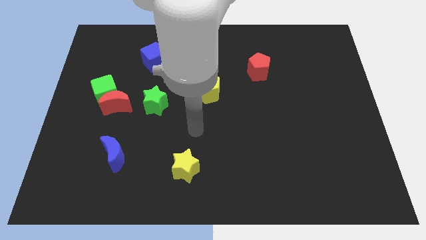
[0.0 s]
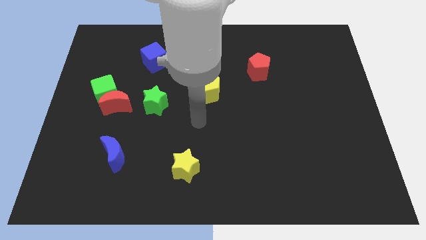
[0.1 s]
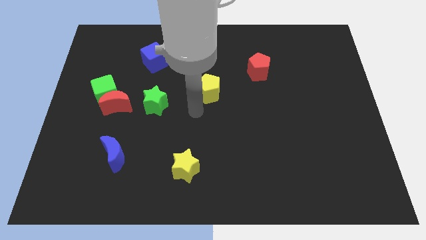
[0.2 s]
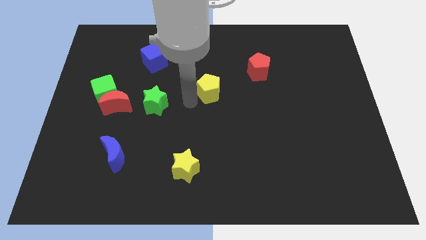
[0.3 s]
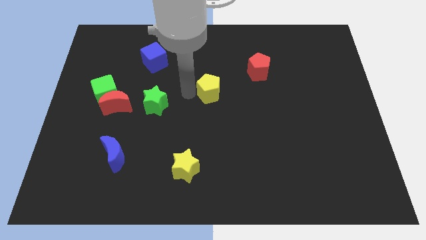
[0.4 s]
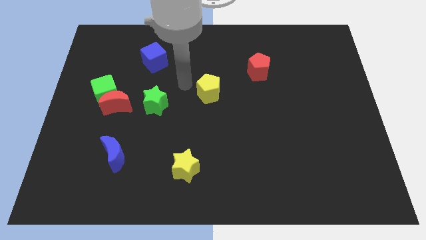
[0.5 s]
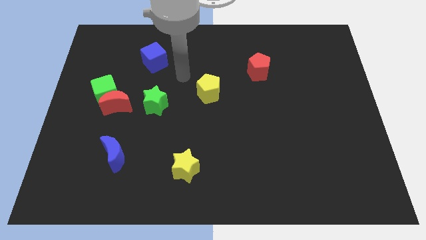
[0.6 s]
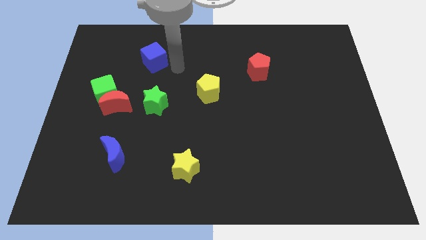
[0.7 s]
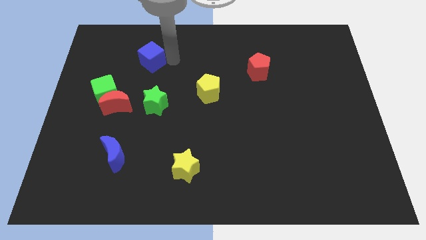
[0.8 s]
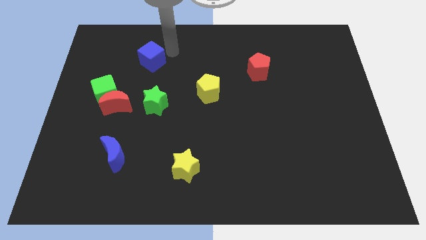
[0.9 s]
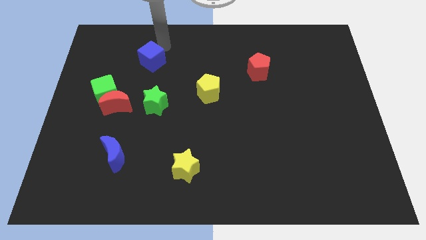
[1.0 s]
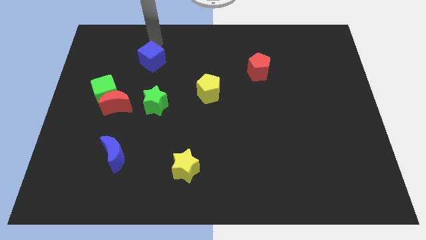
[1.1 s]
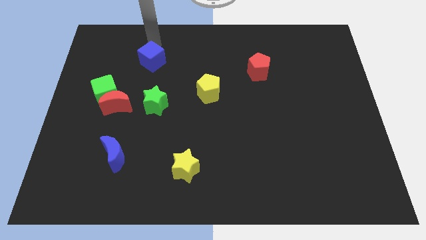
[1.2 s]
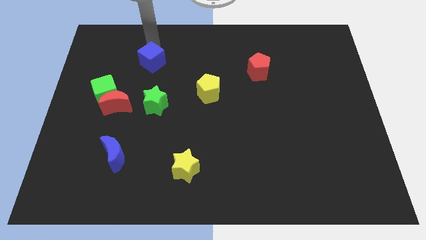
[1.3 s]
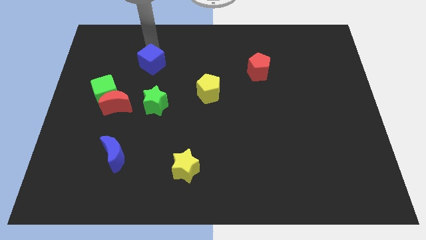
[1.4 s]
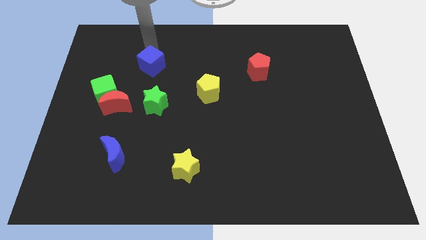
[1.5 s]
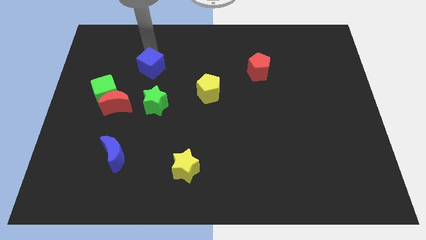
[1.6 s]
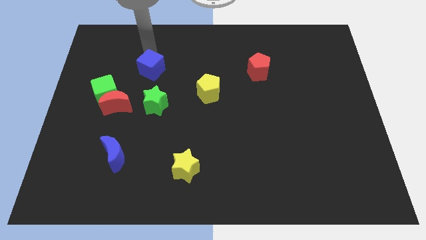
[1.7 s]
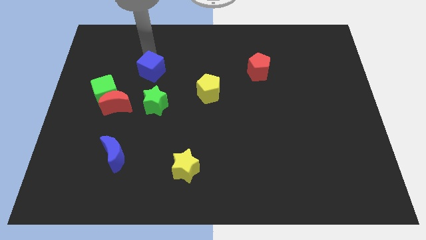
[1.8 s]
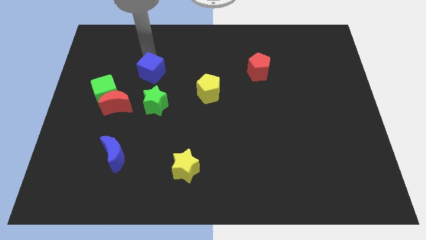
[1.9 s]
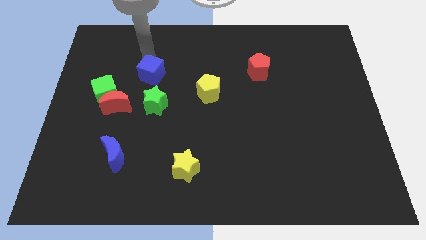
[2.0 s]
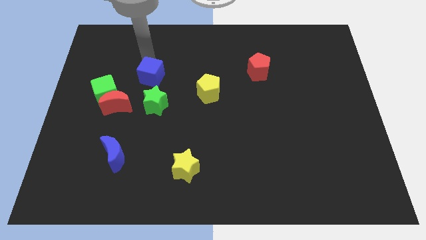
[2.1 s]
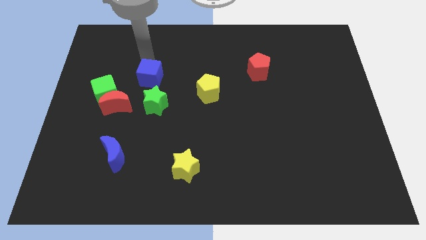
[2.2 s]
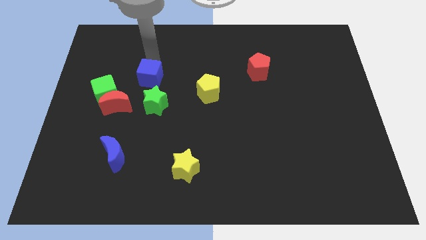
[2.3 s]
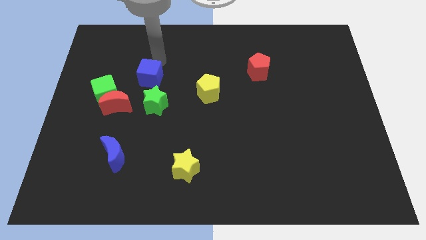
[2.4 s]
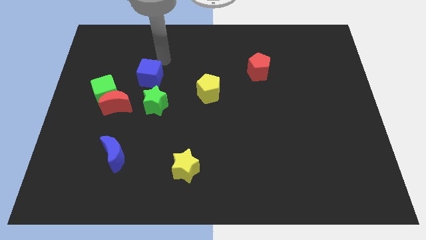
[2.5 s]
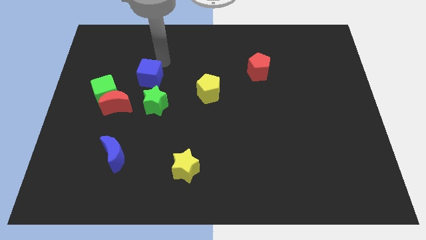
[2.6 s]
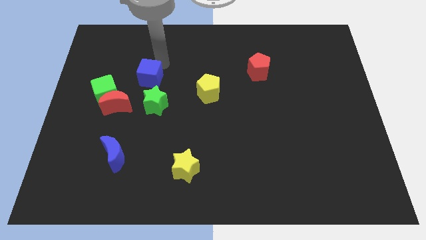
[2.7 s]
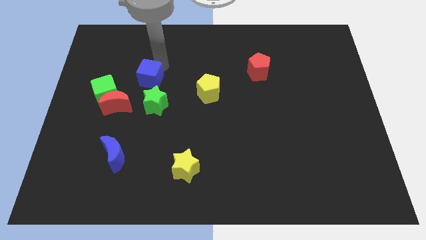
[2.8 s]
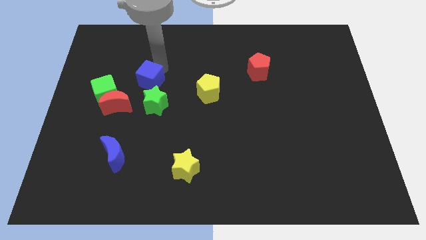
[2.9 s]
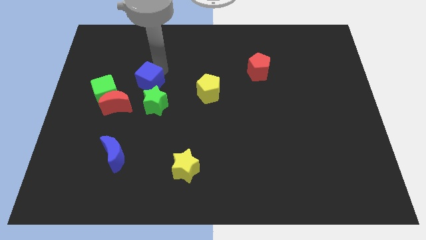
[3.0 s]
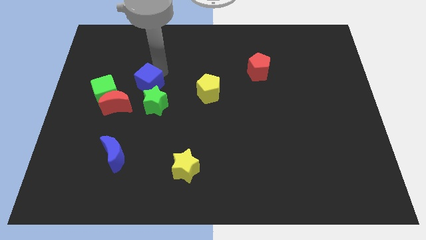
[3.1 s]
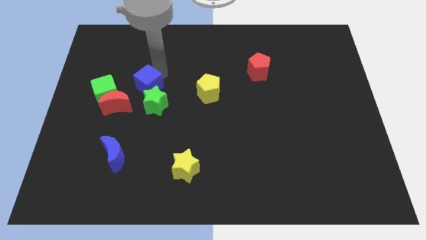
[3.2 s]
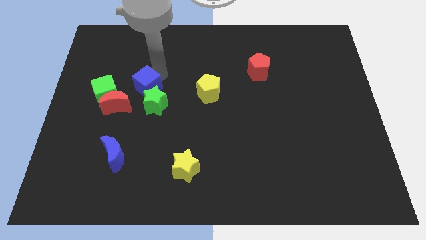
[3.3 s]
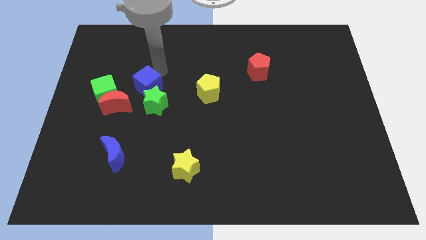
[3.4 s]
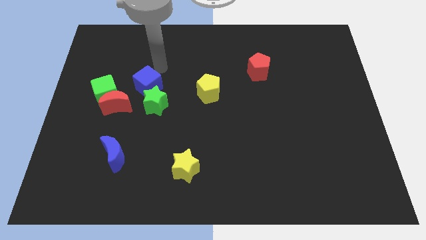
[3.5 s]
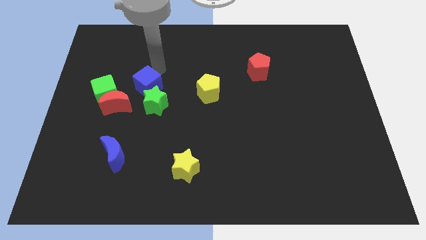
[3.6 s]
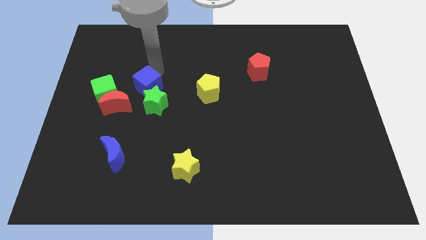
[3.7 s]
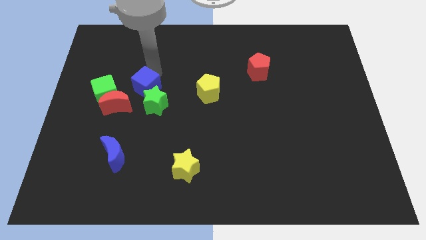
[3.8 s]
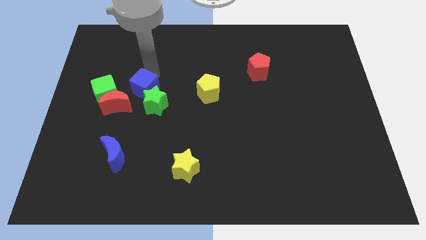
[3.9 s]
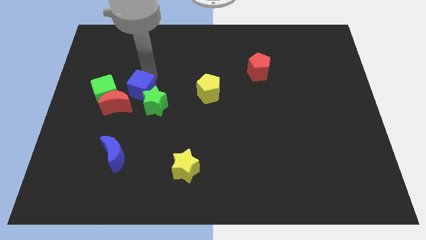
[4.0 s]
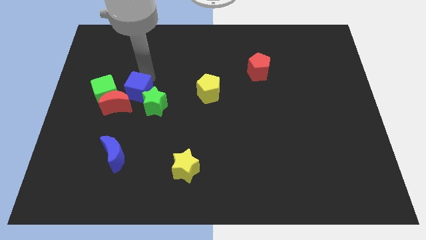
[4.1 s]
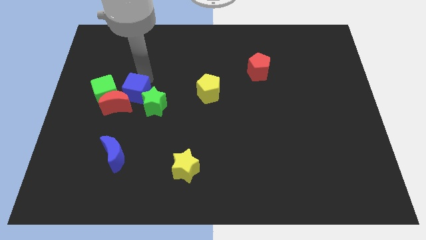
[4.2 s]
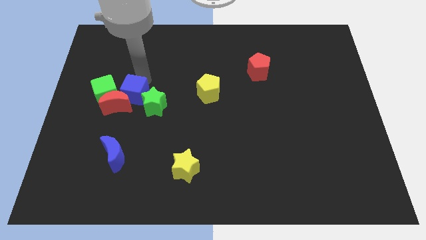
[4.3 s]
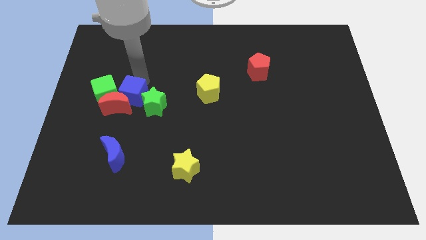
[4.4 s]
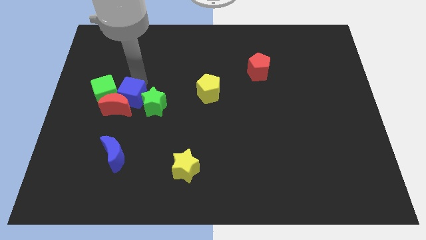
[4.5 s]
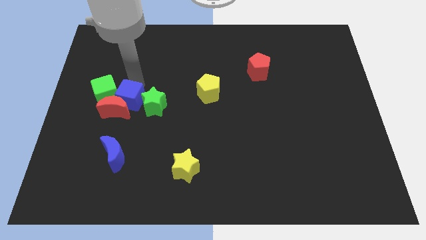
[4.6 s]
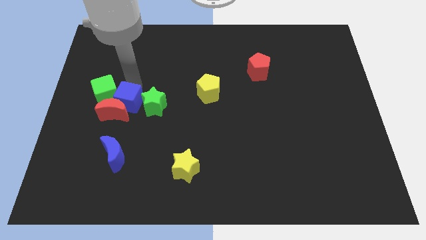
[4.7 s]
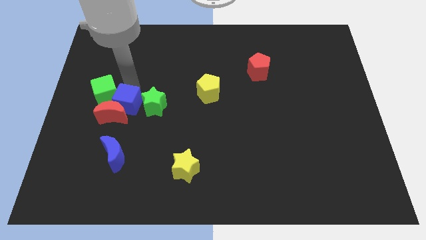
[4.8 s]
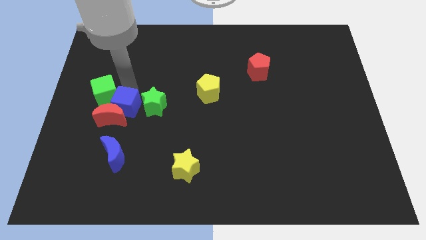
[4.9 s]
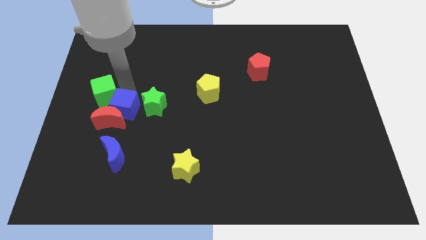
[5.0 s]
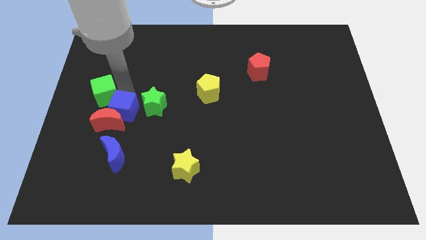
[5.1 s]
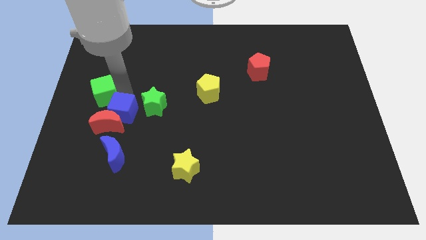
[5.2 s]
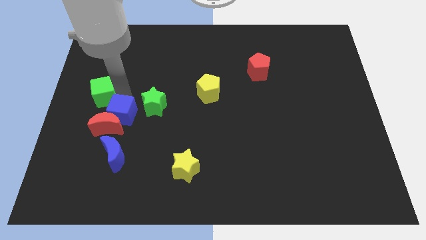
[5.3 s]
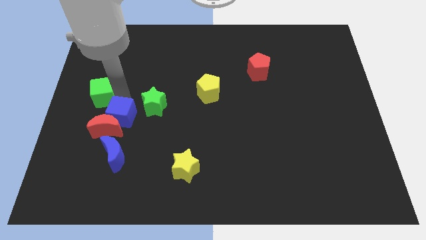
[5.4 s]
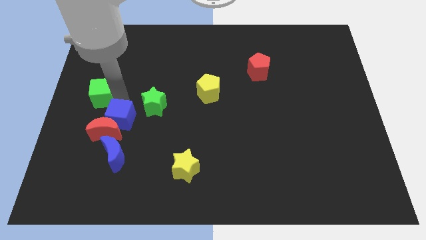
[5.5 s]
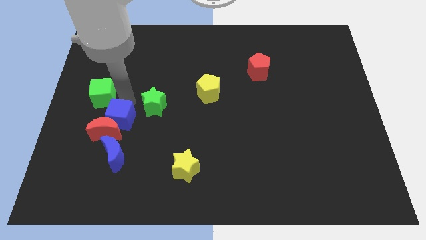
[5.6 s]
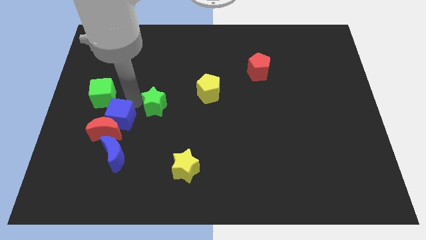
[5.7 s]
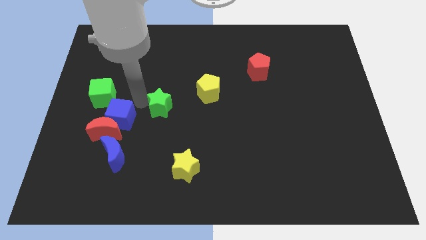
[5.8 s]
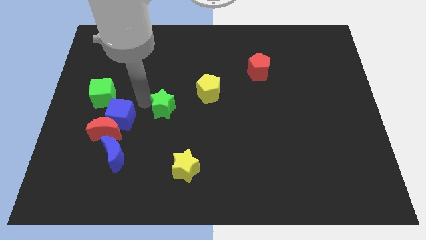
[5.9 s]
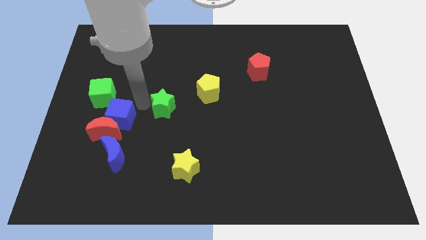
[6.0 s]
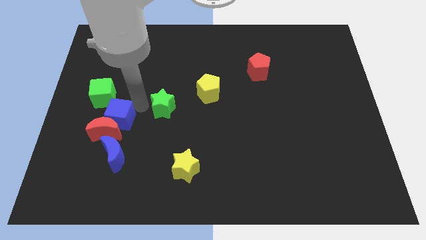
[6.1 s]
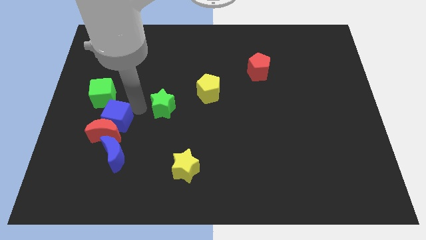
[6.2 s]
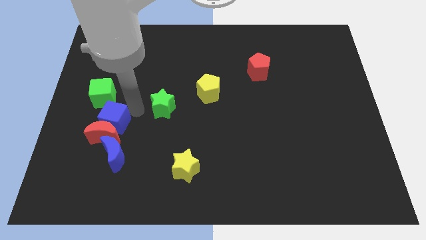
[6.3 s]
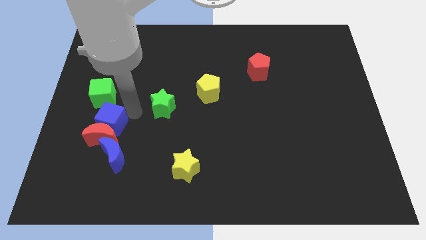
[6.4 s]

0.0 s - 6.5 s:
move the blue cube to the top left side of the blue moon

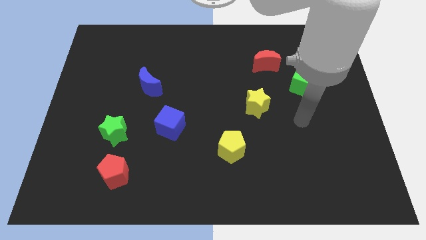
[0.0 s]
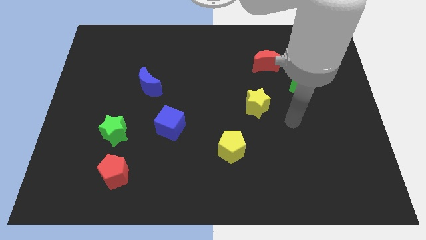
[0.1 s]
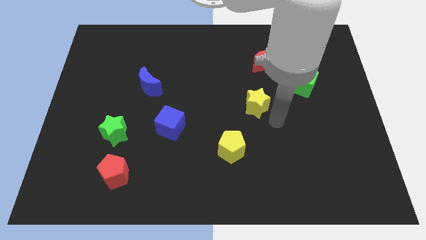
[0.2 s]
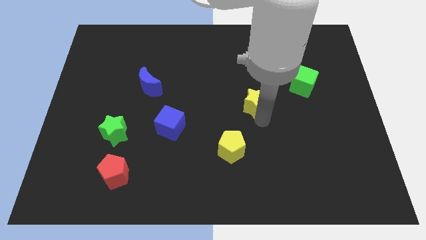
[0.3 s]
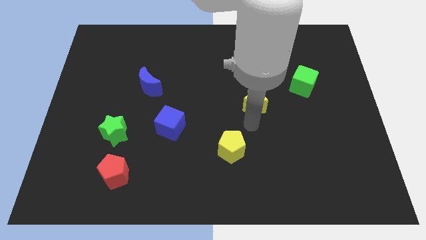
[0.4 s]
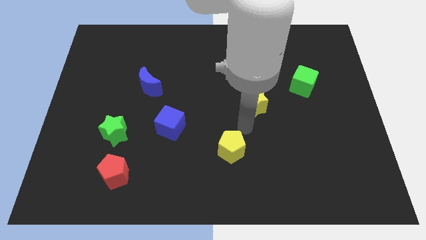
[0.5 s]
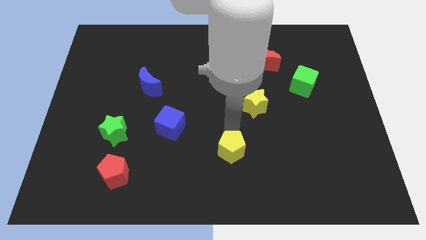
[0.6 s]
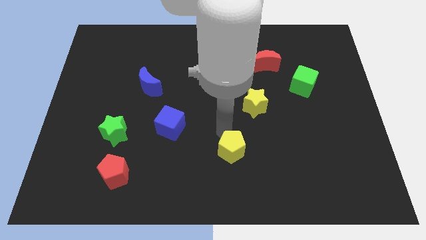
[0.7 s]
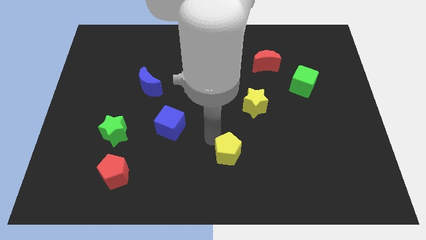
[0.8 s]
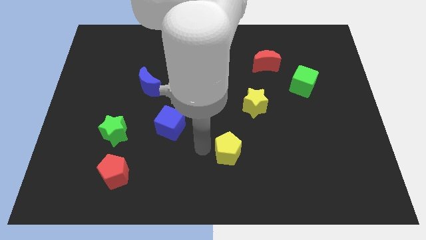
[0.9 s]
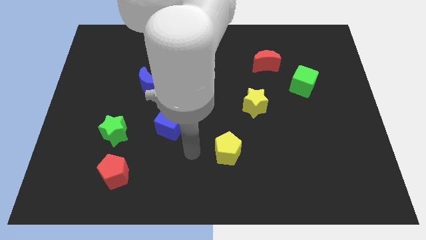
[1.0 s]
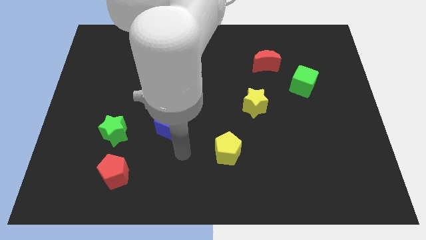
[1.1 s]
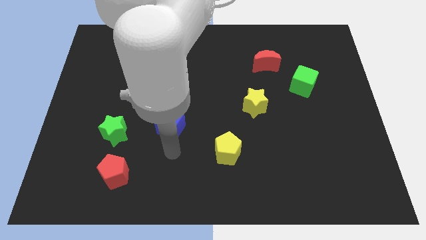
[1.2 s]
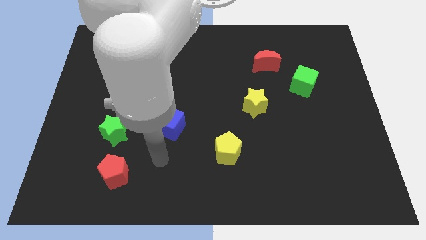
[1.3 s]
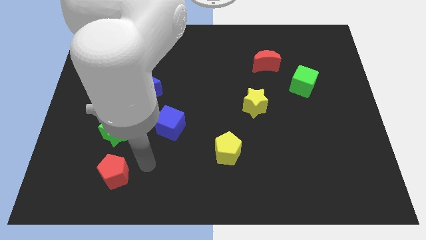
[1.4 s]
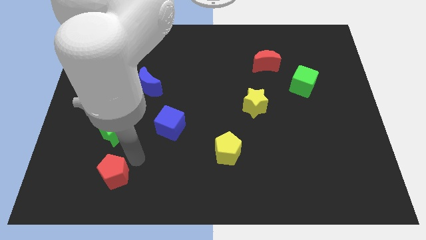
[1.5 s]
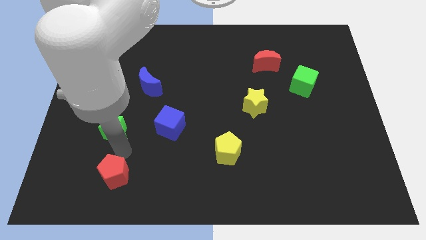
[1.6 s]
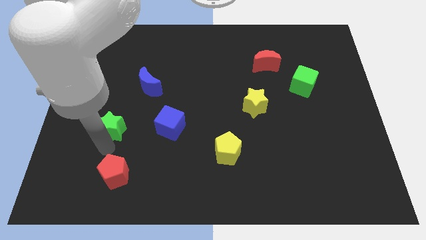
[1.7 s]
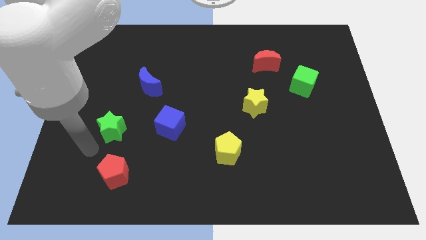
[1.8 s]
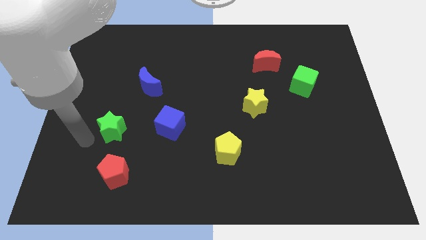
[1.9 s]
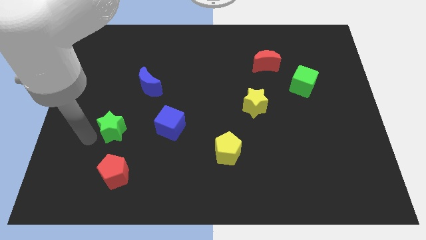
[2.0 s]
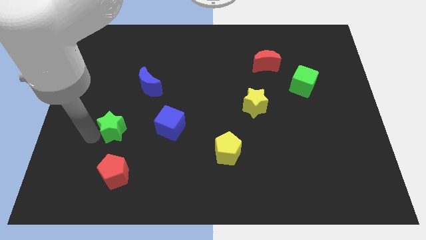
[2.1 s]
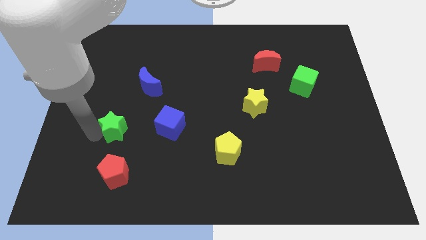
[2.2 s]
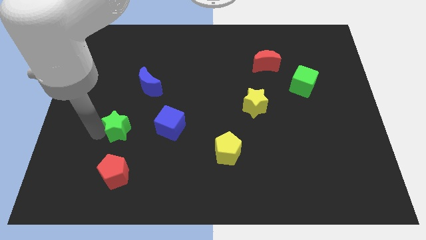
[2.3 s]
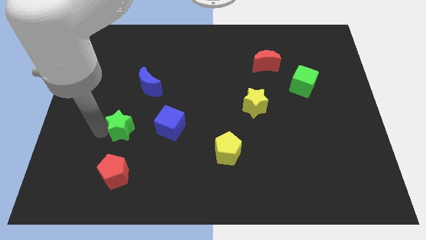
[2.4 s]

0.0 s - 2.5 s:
push the green star below the blue moon
